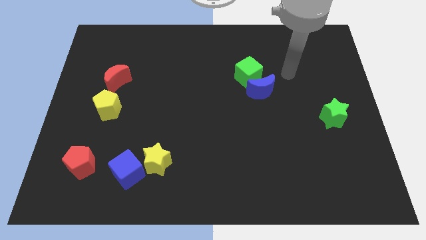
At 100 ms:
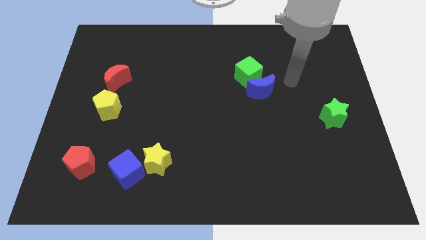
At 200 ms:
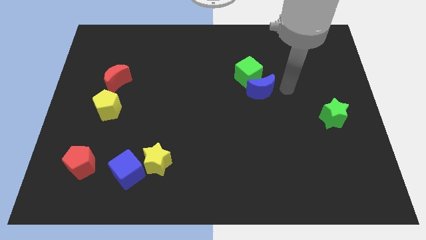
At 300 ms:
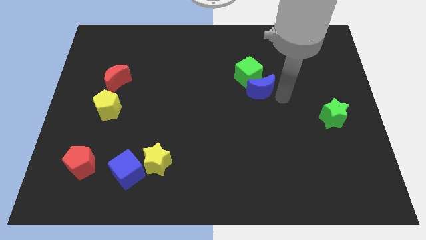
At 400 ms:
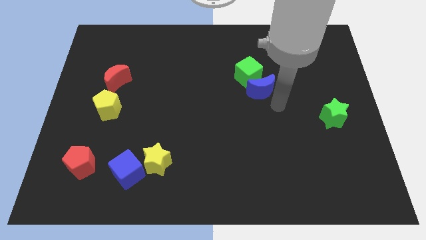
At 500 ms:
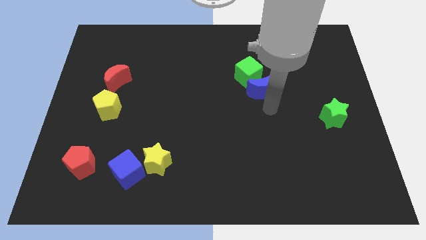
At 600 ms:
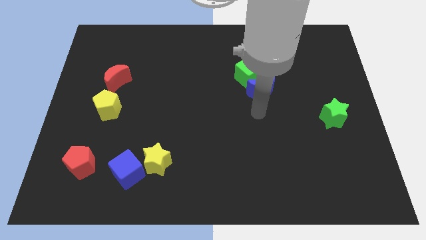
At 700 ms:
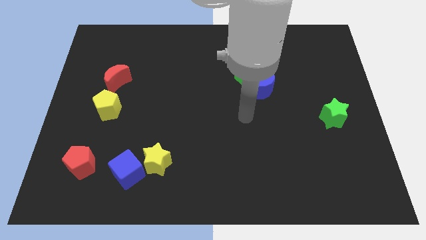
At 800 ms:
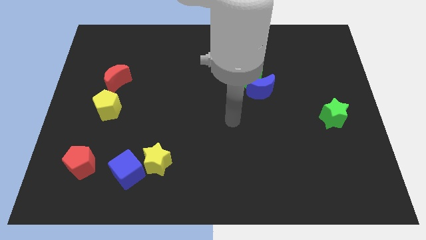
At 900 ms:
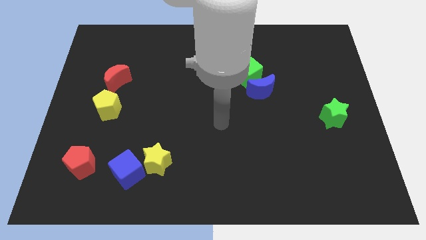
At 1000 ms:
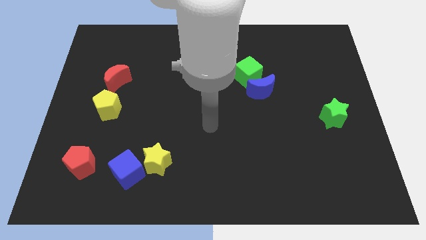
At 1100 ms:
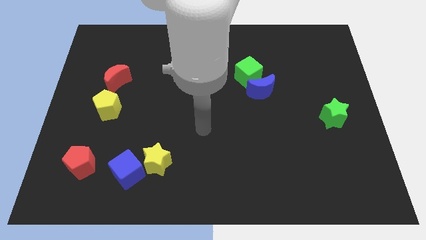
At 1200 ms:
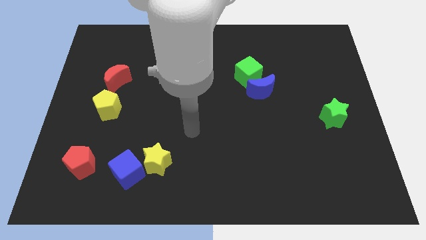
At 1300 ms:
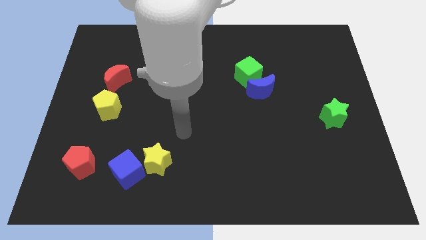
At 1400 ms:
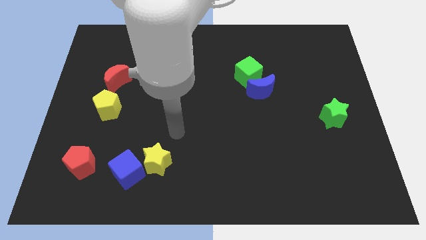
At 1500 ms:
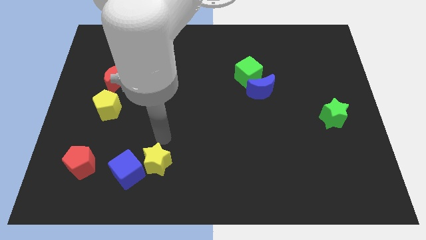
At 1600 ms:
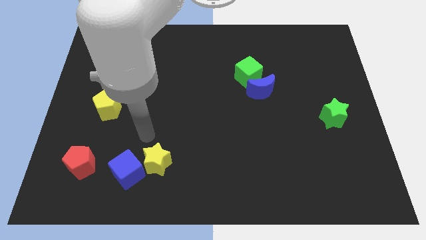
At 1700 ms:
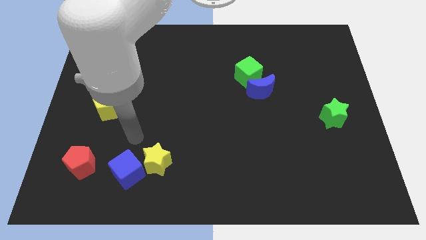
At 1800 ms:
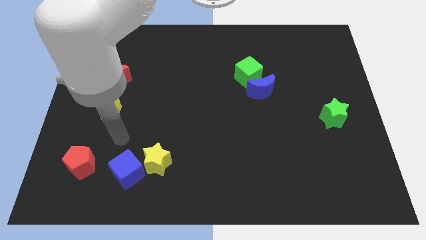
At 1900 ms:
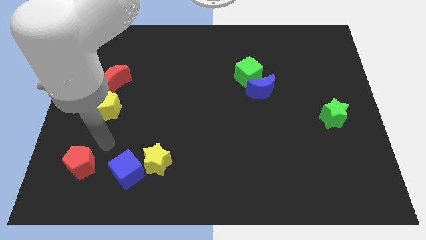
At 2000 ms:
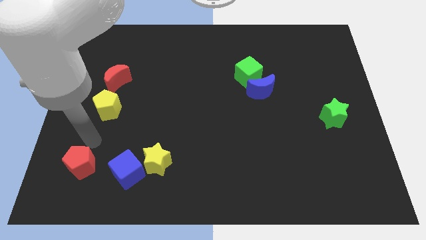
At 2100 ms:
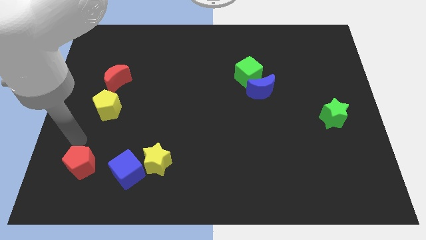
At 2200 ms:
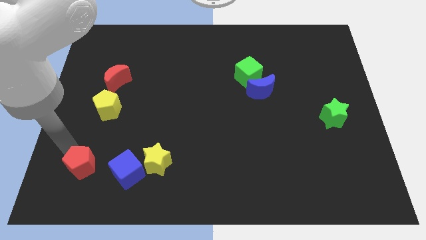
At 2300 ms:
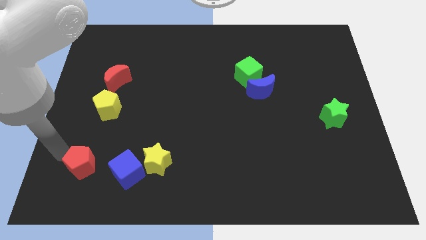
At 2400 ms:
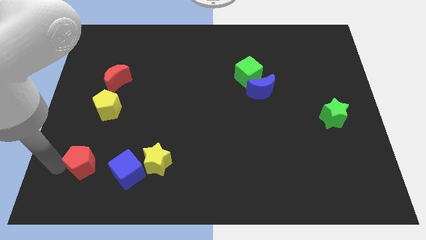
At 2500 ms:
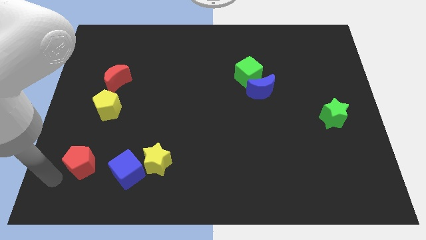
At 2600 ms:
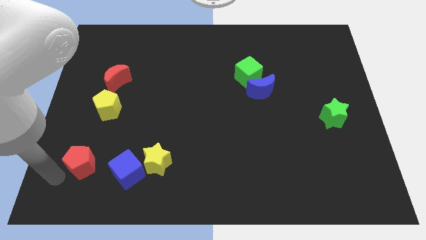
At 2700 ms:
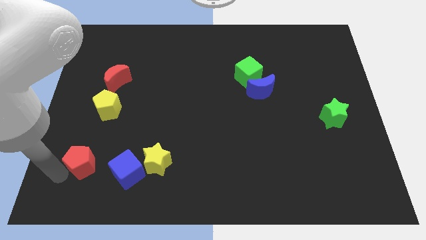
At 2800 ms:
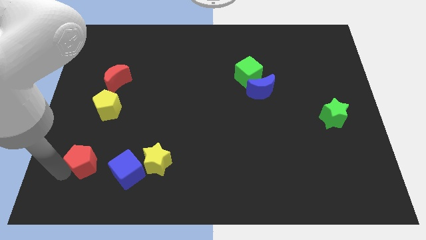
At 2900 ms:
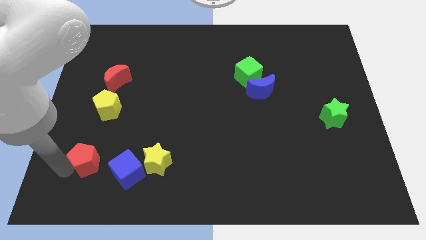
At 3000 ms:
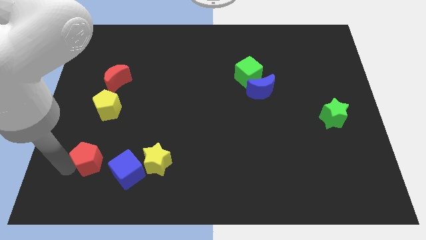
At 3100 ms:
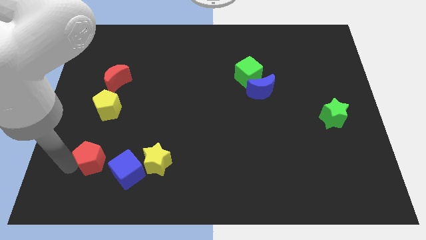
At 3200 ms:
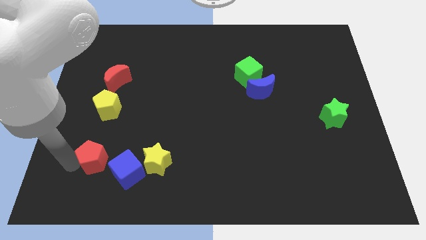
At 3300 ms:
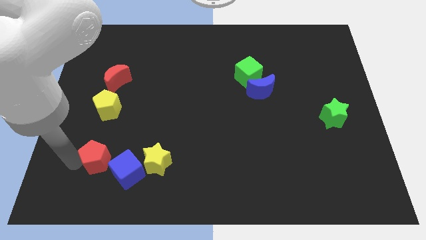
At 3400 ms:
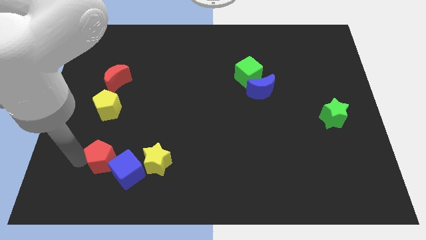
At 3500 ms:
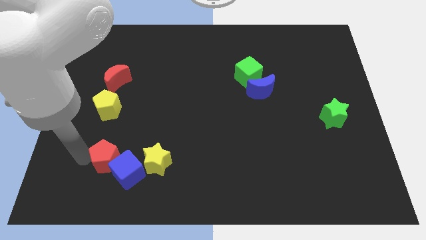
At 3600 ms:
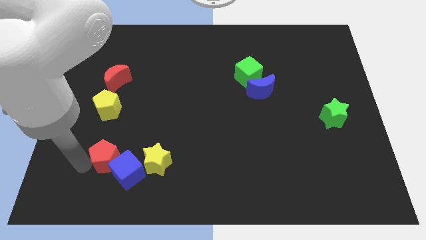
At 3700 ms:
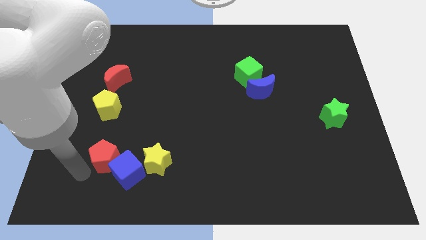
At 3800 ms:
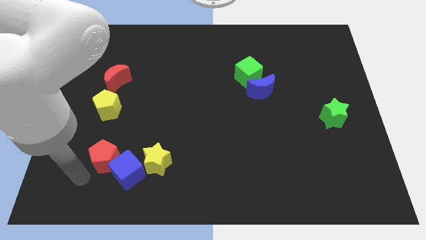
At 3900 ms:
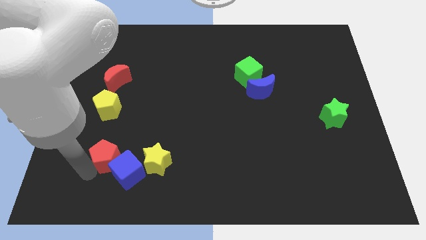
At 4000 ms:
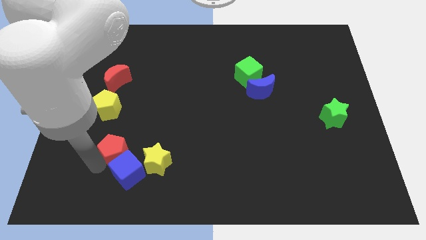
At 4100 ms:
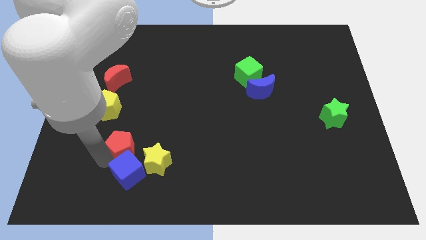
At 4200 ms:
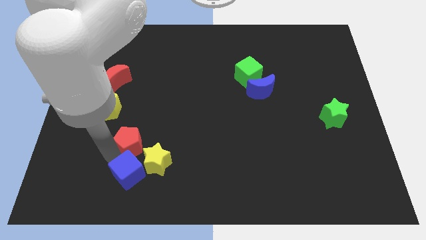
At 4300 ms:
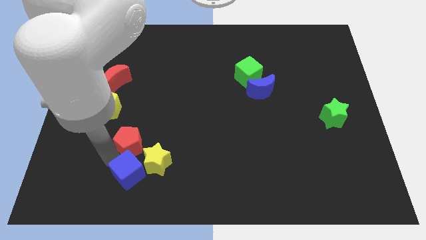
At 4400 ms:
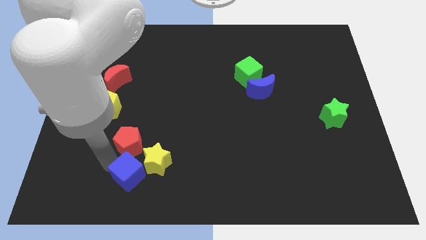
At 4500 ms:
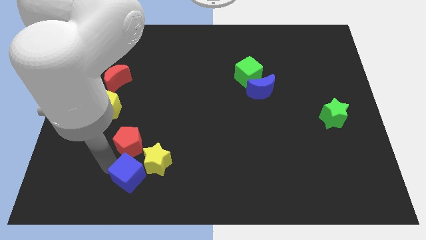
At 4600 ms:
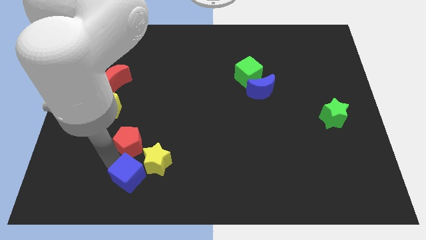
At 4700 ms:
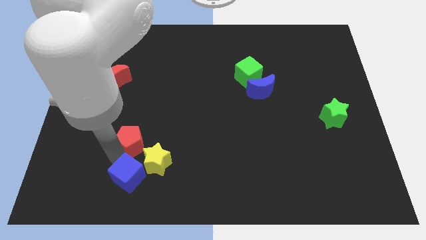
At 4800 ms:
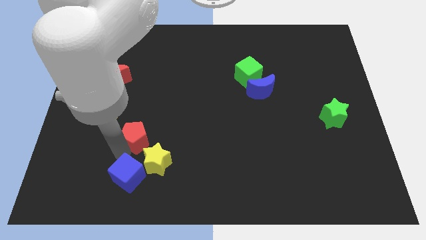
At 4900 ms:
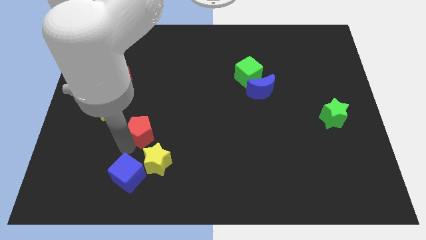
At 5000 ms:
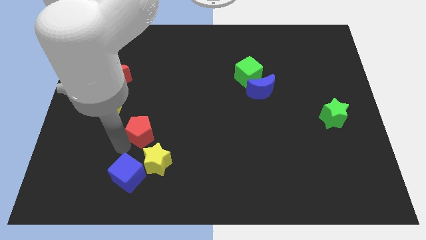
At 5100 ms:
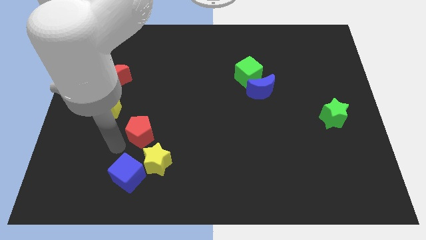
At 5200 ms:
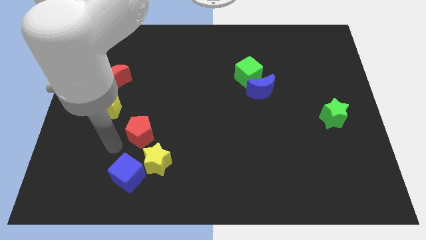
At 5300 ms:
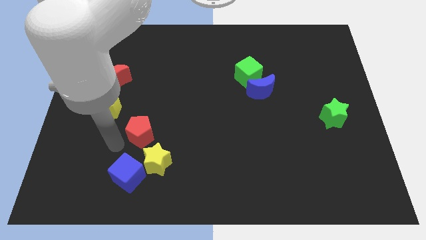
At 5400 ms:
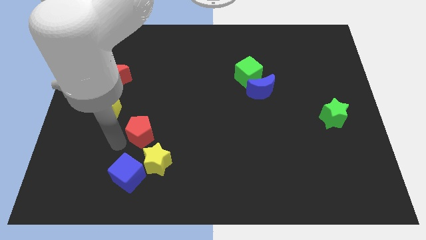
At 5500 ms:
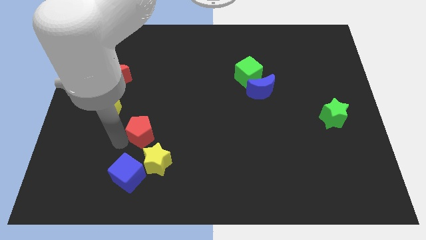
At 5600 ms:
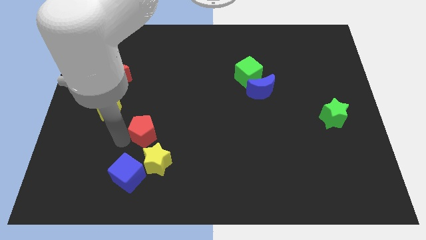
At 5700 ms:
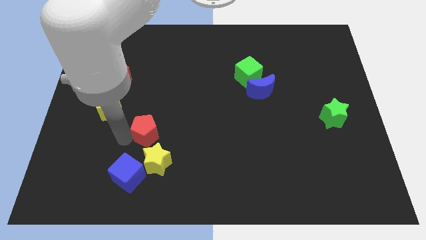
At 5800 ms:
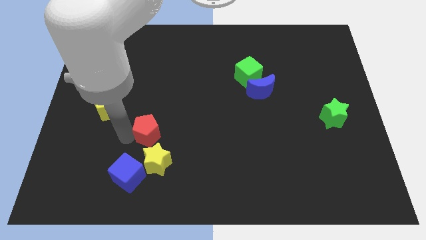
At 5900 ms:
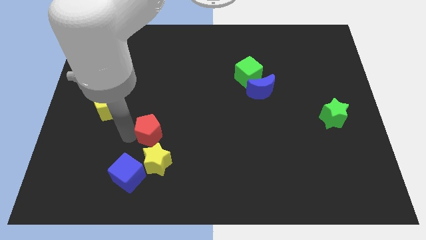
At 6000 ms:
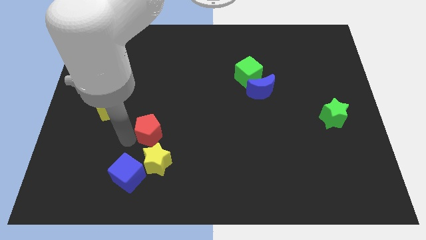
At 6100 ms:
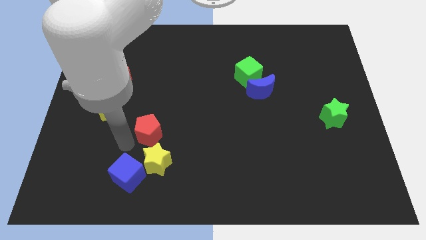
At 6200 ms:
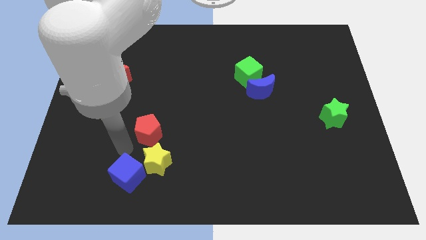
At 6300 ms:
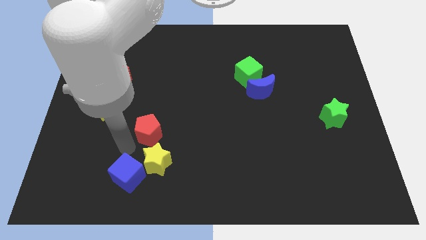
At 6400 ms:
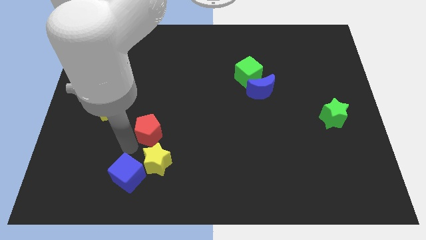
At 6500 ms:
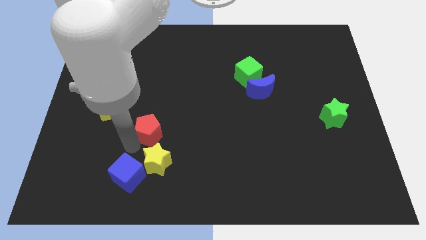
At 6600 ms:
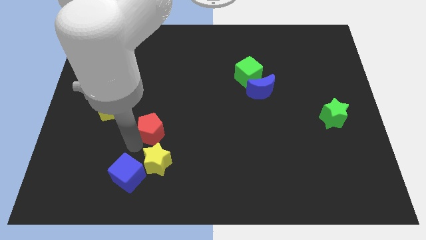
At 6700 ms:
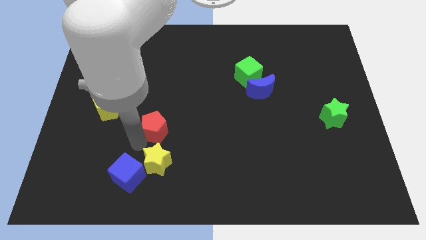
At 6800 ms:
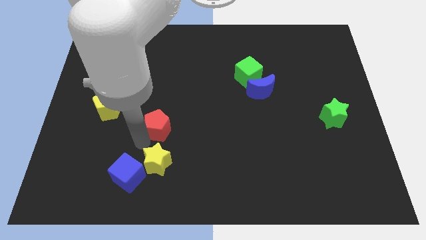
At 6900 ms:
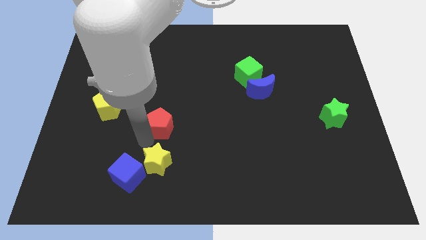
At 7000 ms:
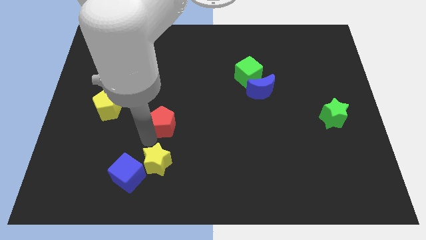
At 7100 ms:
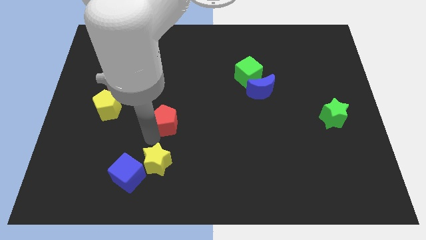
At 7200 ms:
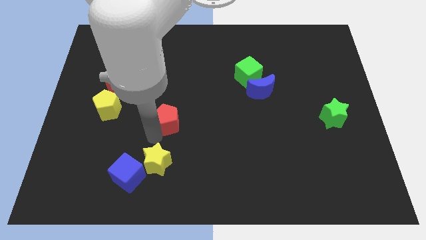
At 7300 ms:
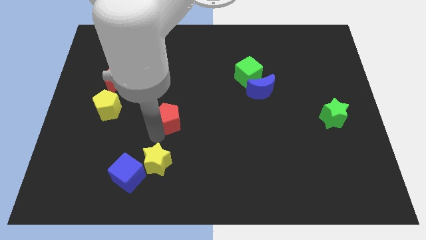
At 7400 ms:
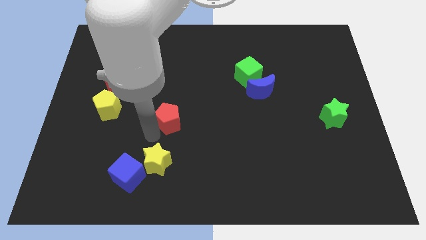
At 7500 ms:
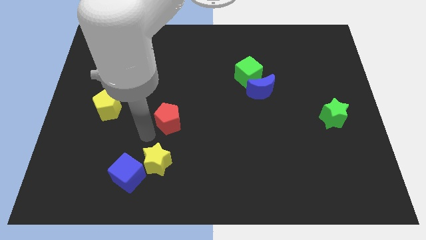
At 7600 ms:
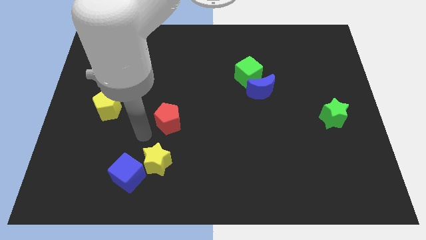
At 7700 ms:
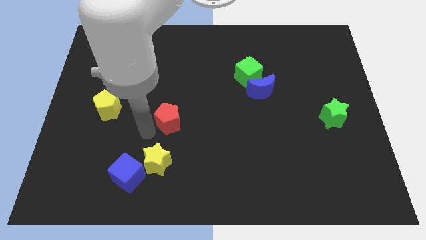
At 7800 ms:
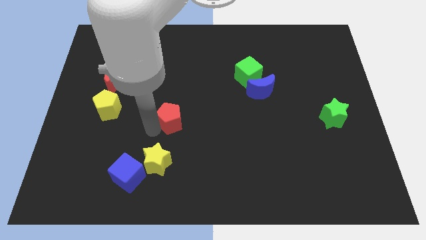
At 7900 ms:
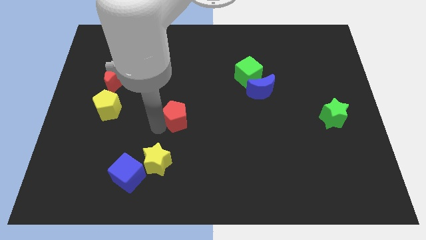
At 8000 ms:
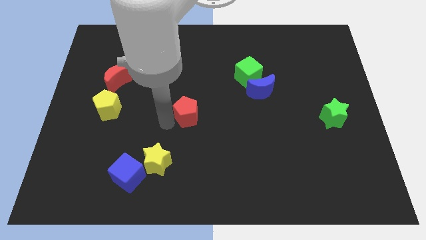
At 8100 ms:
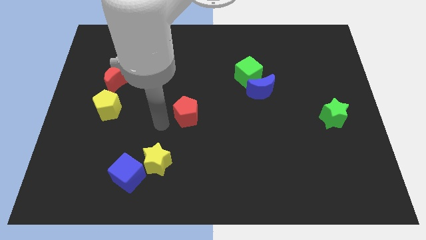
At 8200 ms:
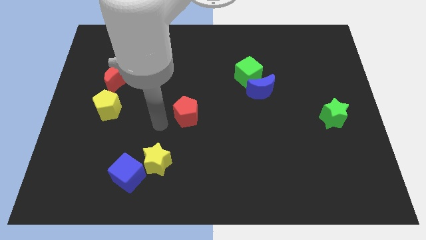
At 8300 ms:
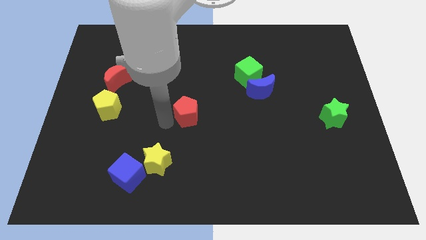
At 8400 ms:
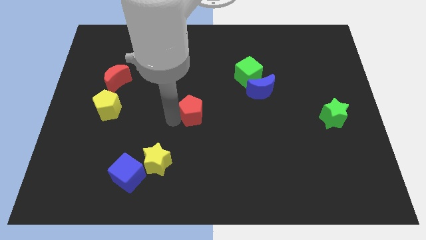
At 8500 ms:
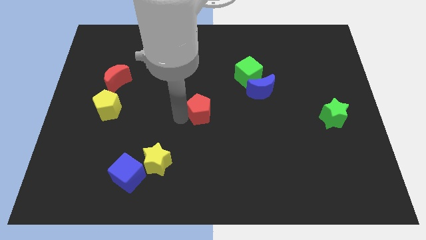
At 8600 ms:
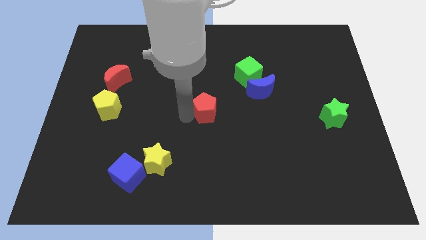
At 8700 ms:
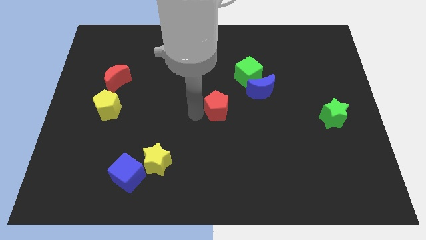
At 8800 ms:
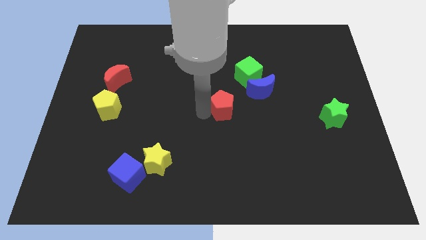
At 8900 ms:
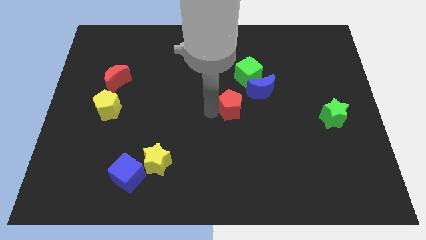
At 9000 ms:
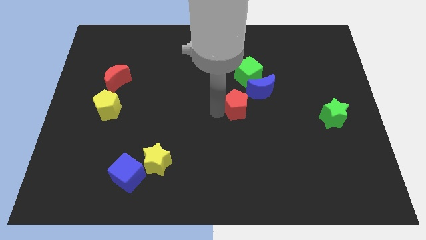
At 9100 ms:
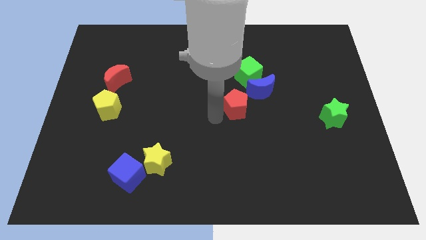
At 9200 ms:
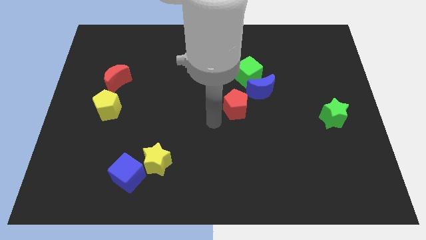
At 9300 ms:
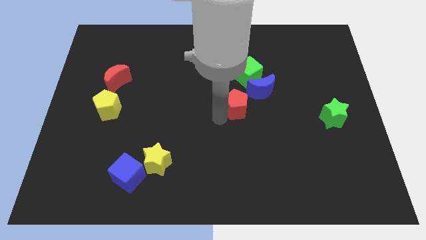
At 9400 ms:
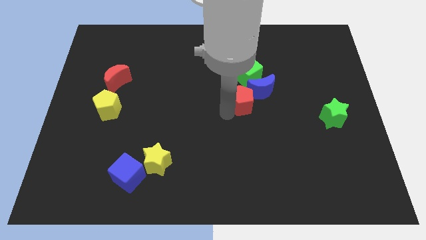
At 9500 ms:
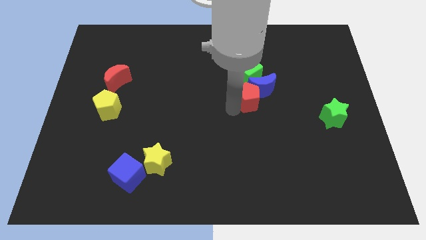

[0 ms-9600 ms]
push the red pentagon towards the blue moon
